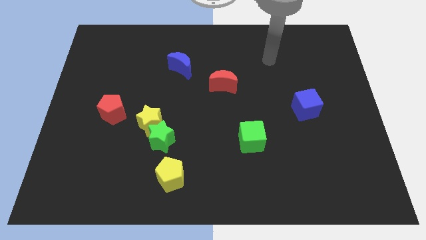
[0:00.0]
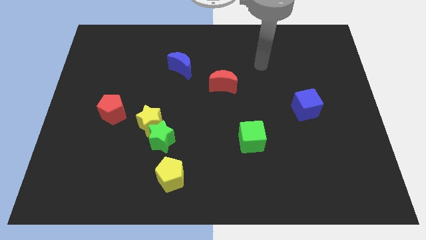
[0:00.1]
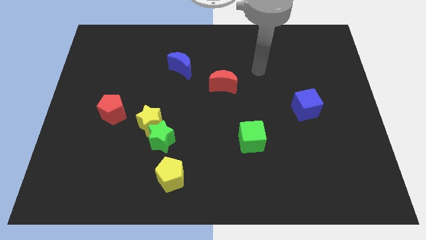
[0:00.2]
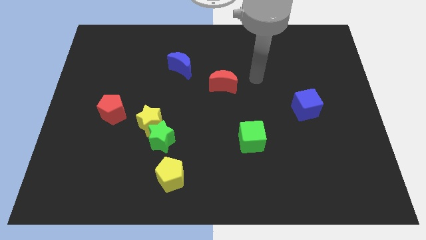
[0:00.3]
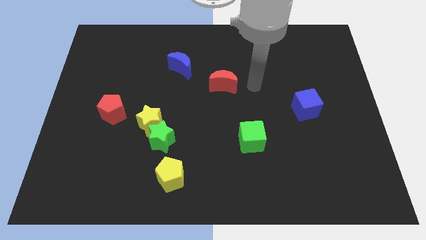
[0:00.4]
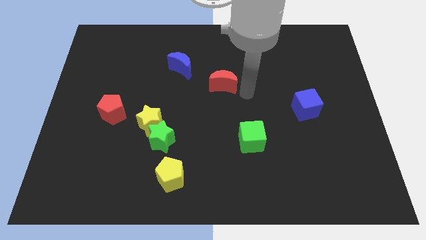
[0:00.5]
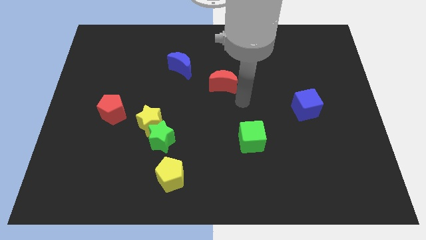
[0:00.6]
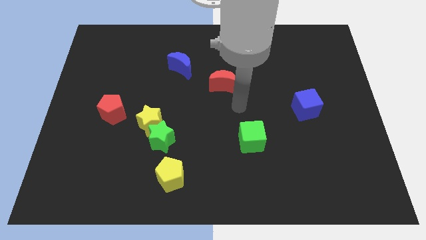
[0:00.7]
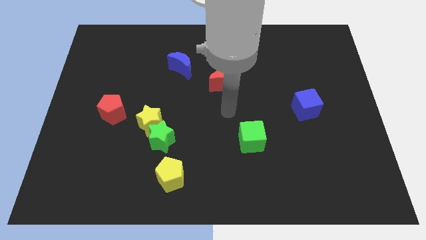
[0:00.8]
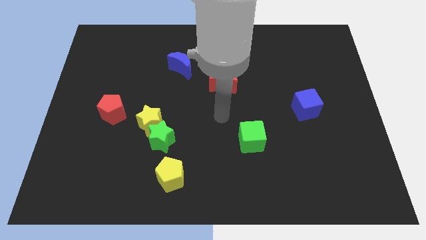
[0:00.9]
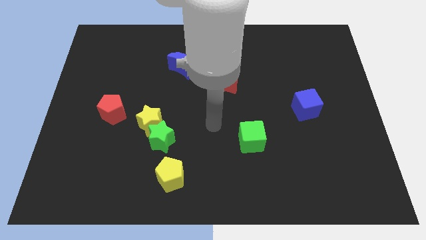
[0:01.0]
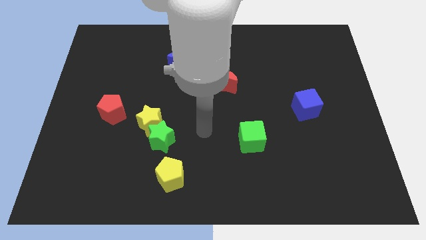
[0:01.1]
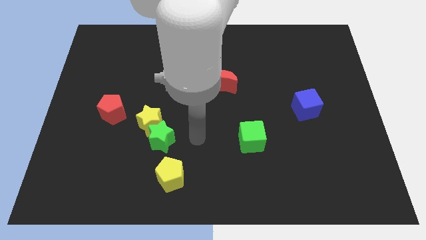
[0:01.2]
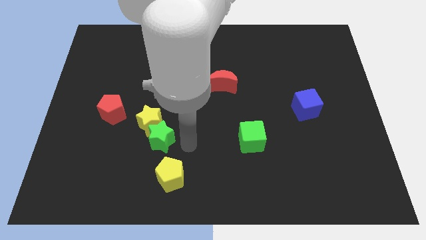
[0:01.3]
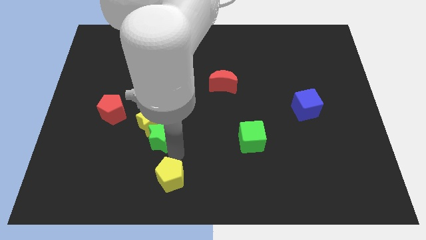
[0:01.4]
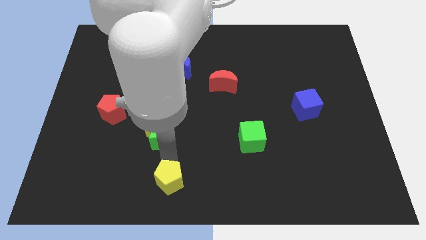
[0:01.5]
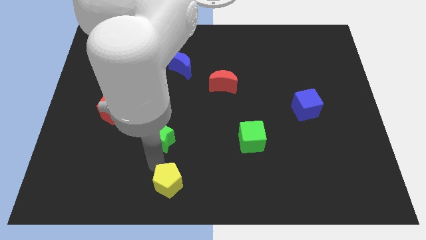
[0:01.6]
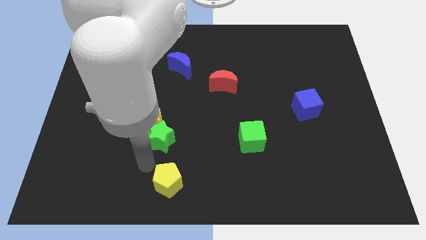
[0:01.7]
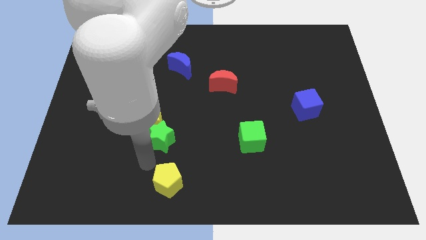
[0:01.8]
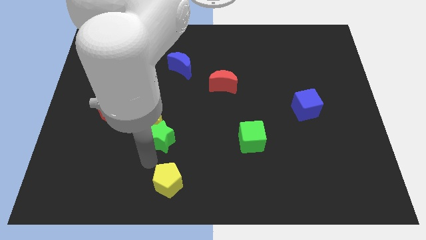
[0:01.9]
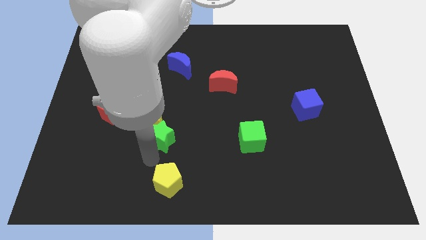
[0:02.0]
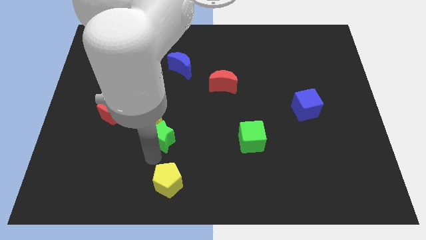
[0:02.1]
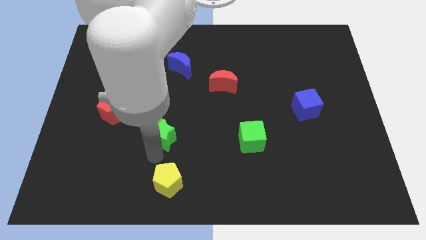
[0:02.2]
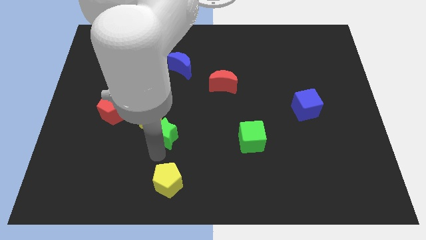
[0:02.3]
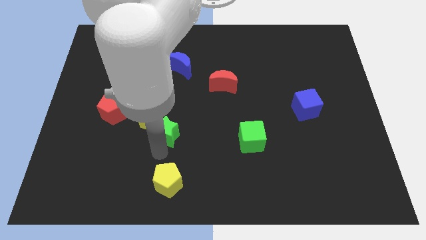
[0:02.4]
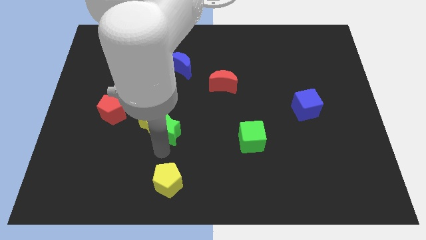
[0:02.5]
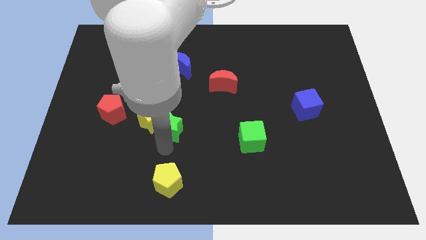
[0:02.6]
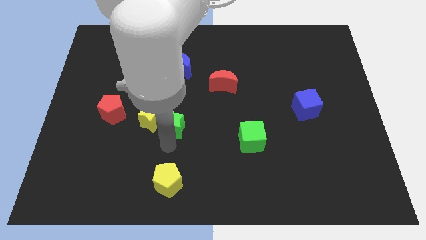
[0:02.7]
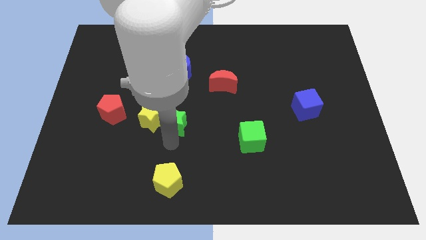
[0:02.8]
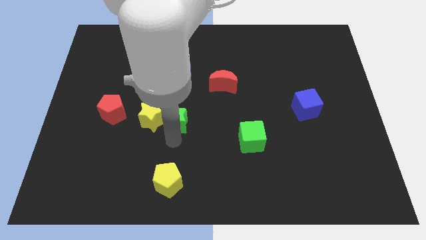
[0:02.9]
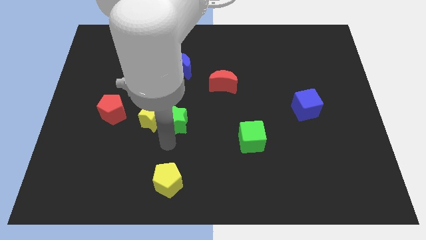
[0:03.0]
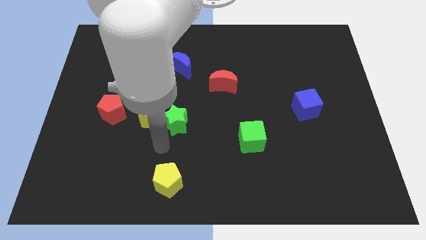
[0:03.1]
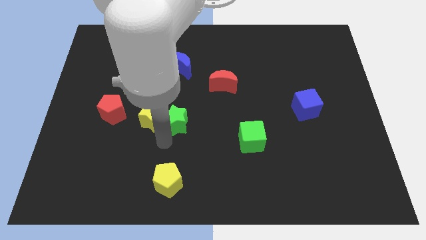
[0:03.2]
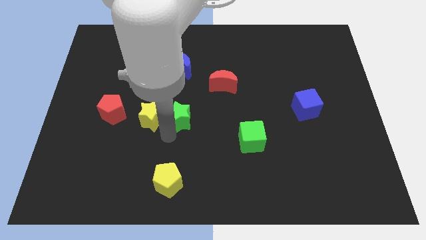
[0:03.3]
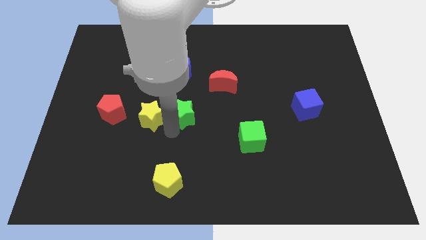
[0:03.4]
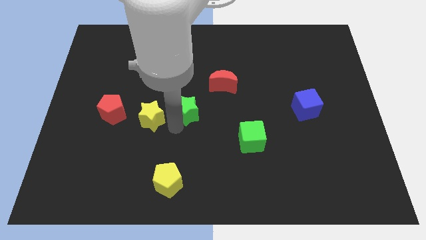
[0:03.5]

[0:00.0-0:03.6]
separate the green star from the yellow star and yellow pentagon

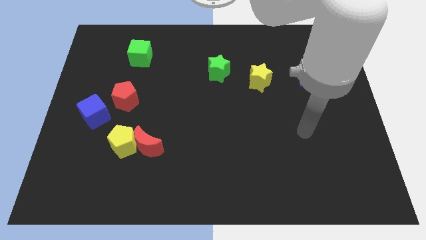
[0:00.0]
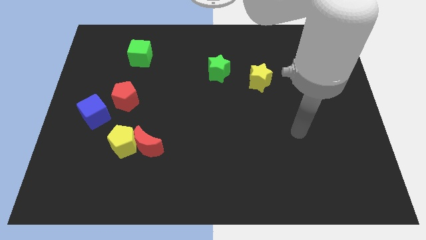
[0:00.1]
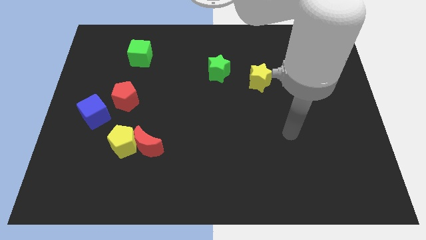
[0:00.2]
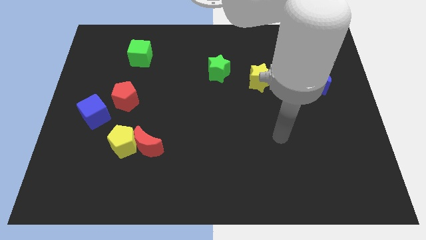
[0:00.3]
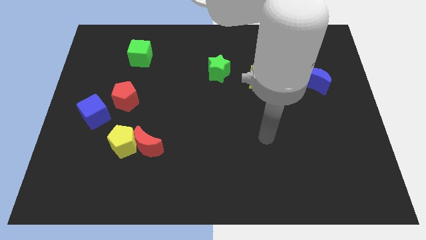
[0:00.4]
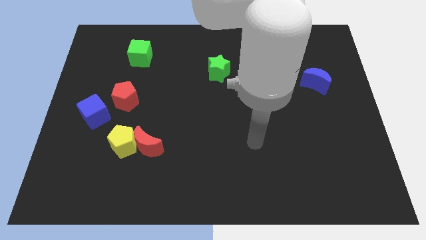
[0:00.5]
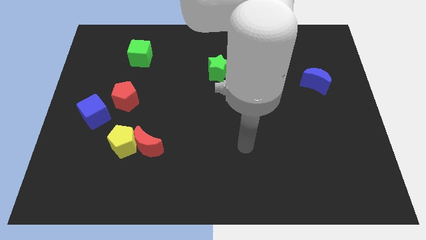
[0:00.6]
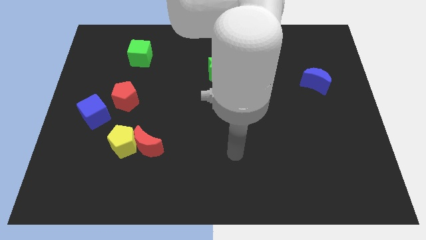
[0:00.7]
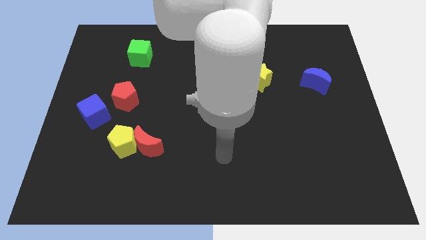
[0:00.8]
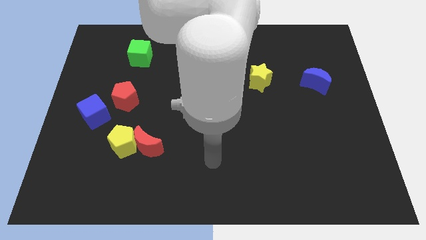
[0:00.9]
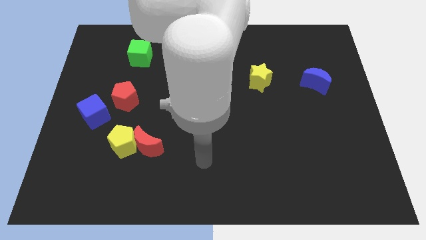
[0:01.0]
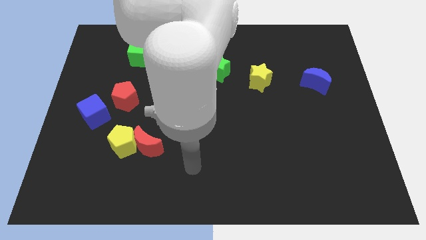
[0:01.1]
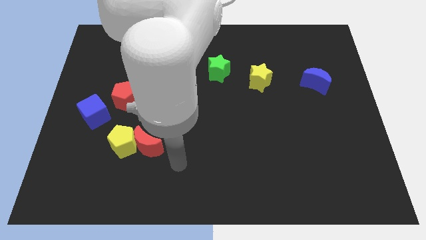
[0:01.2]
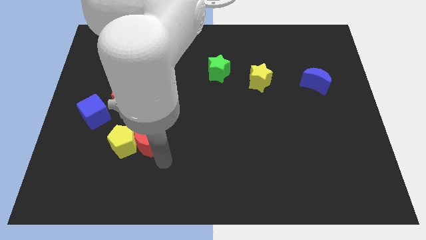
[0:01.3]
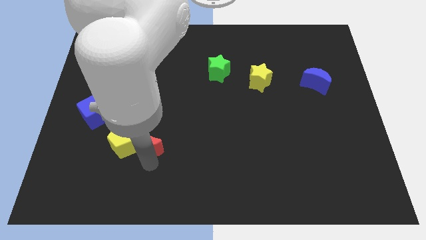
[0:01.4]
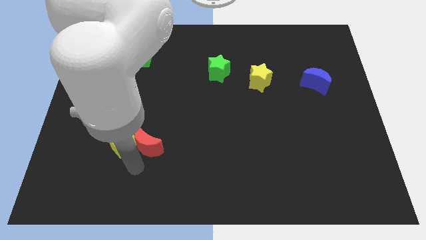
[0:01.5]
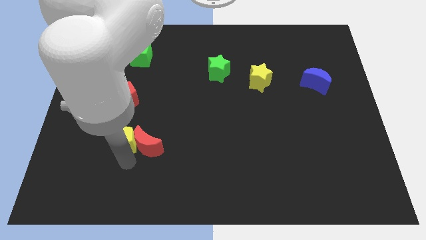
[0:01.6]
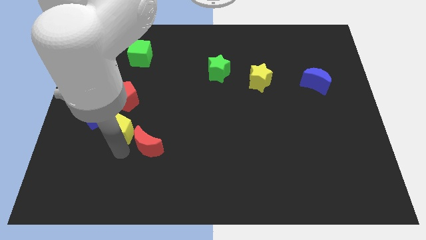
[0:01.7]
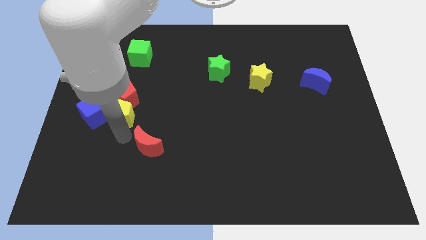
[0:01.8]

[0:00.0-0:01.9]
move the red moon away from the yellow pentagon

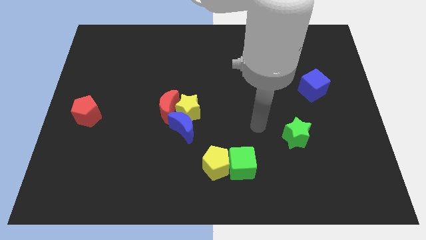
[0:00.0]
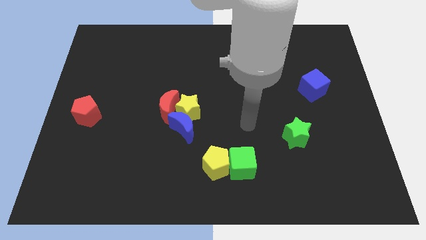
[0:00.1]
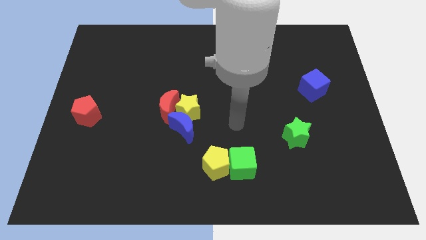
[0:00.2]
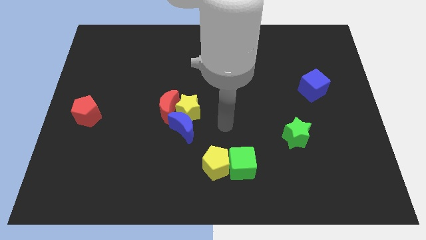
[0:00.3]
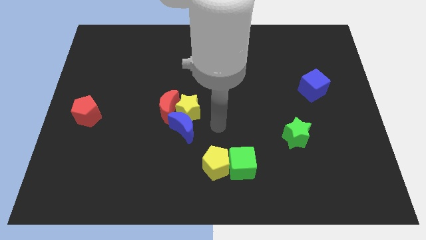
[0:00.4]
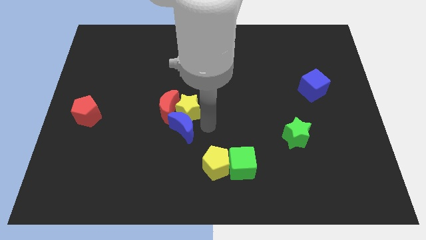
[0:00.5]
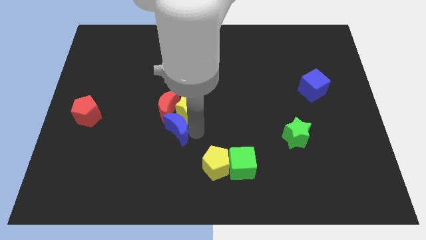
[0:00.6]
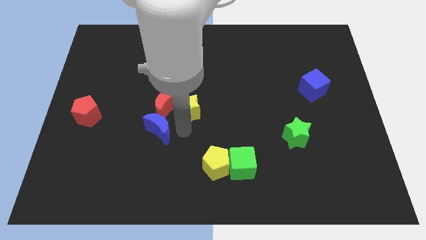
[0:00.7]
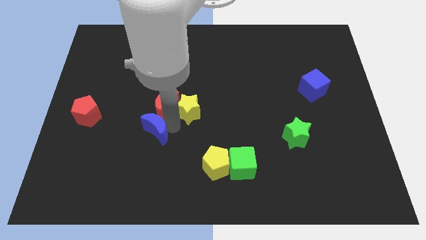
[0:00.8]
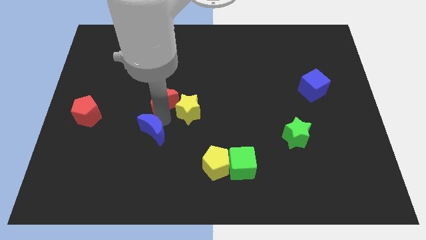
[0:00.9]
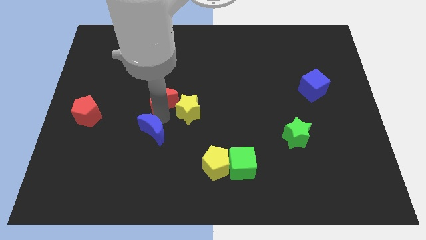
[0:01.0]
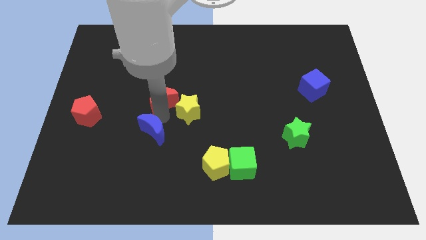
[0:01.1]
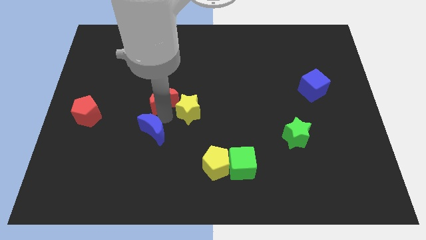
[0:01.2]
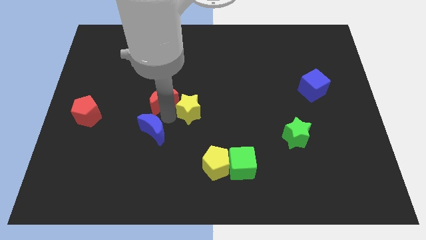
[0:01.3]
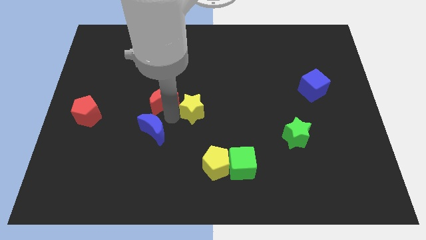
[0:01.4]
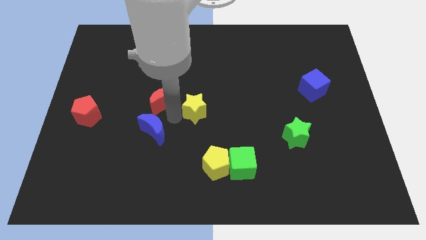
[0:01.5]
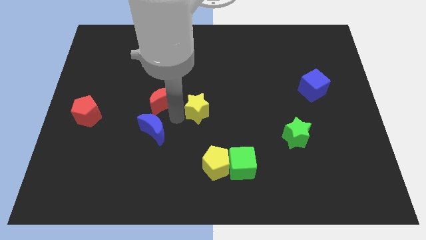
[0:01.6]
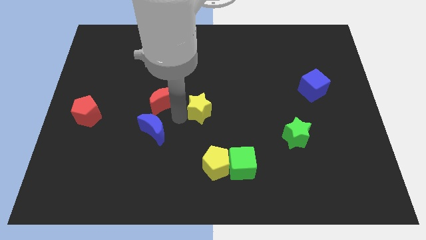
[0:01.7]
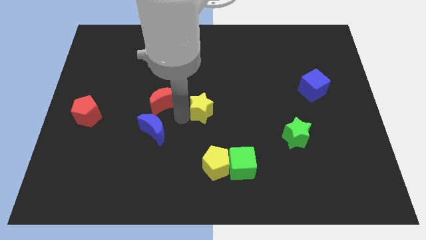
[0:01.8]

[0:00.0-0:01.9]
move the yellow star away from the blue moon and red moon

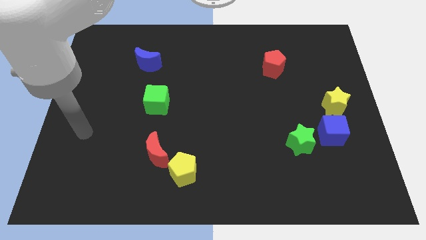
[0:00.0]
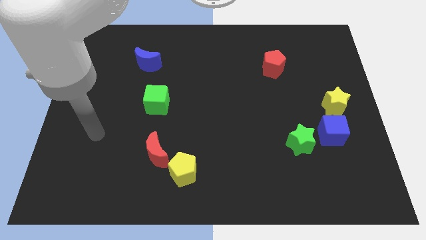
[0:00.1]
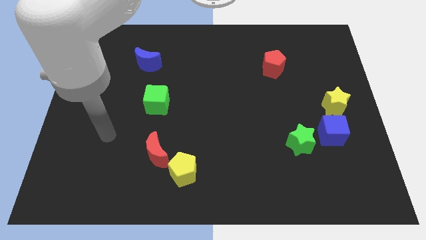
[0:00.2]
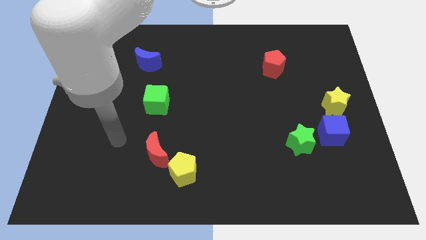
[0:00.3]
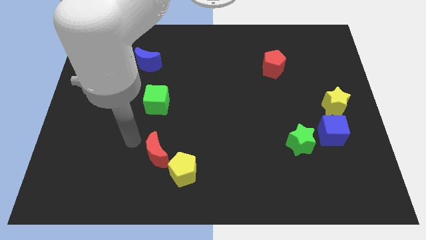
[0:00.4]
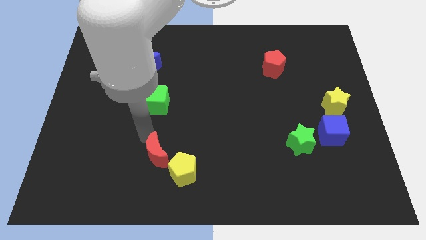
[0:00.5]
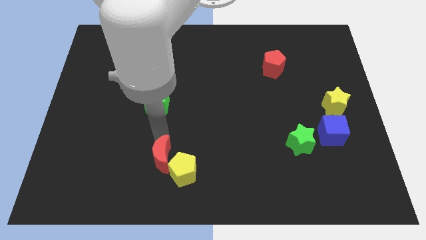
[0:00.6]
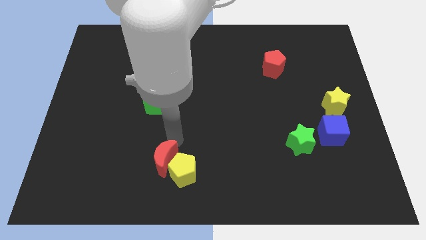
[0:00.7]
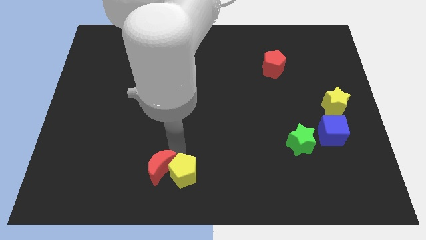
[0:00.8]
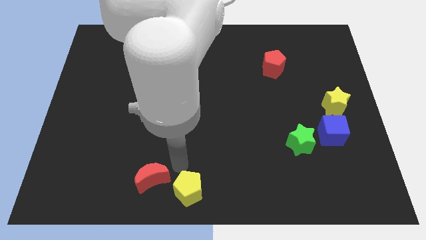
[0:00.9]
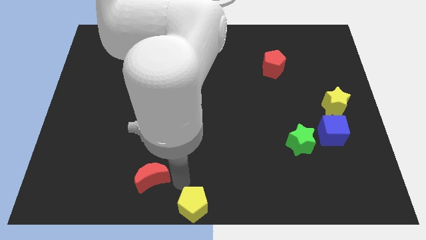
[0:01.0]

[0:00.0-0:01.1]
separate the red moon from the yellow pentagon

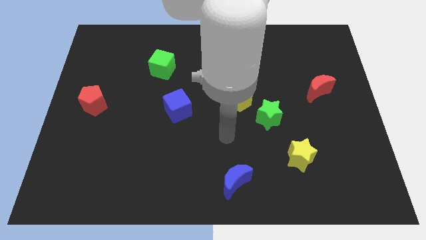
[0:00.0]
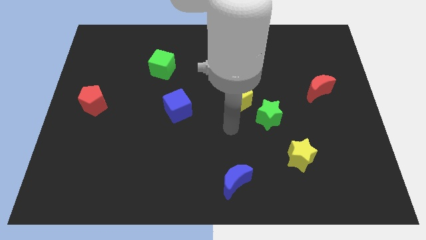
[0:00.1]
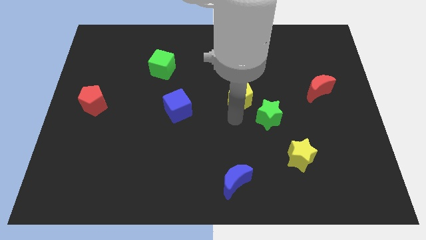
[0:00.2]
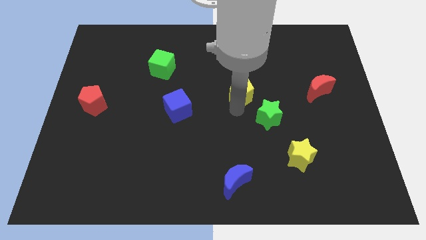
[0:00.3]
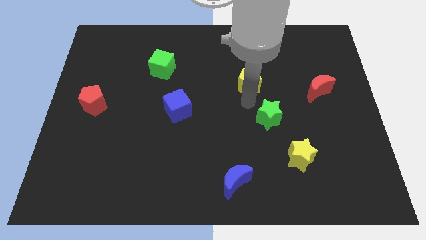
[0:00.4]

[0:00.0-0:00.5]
move the green star away from the yellow pentagon

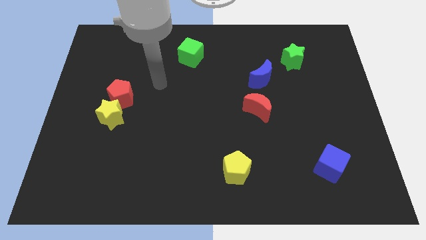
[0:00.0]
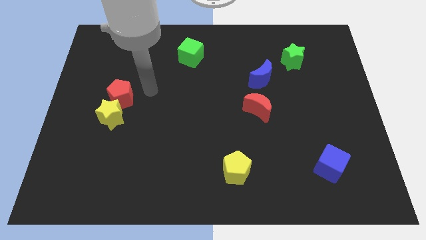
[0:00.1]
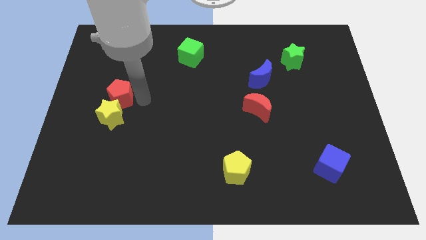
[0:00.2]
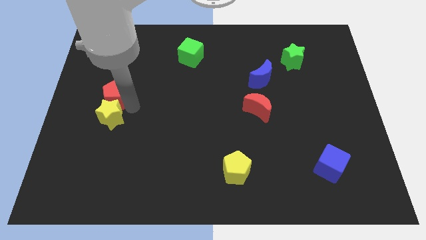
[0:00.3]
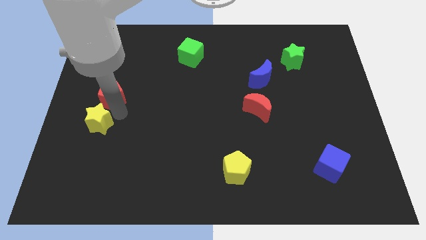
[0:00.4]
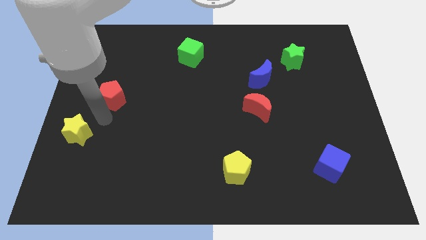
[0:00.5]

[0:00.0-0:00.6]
pull the red pentagon apart from the yellow star
